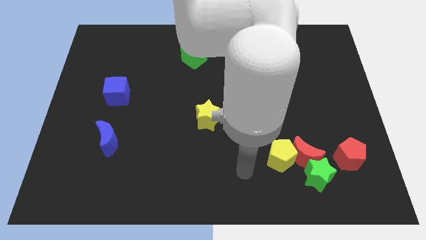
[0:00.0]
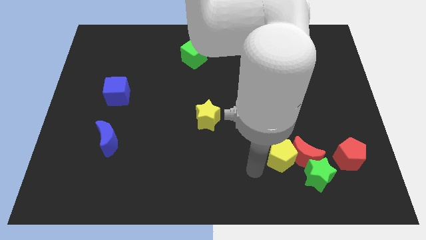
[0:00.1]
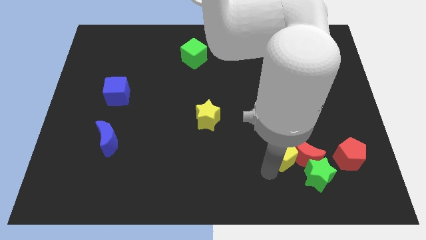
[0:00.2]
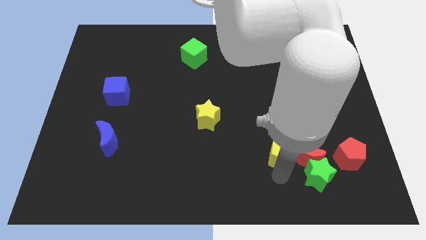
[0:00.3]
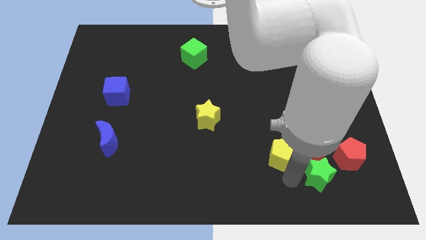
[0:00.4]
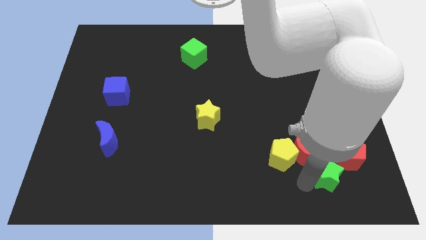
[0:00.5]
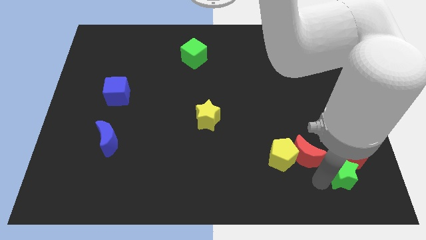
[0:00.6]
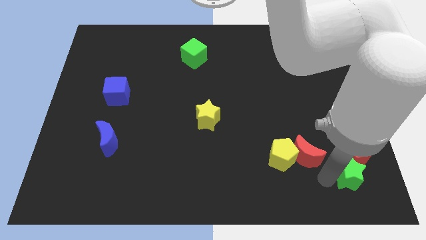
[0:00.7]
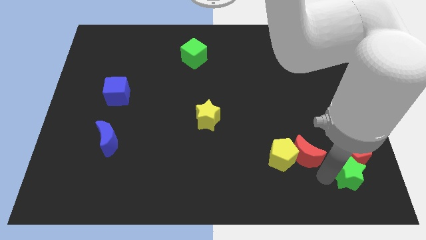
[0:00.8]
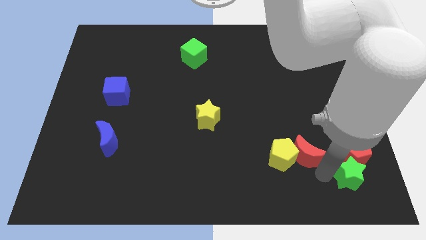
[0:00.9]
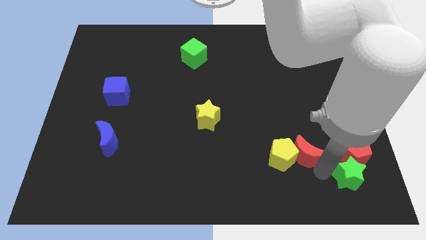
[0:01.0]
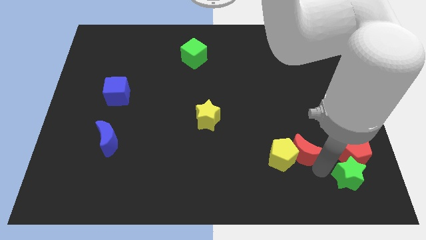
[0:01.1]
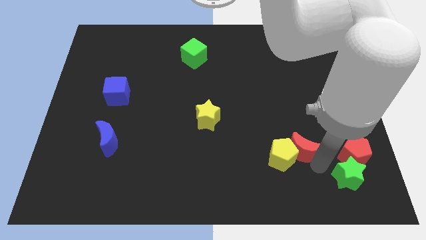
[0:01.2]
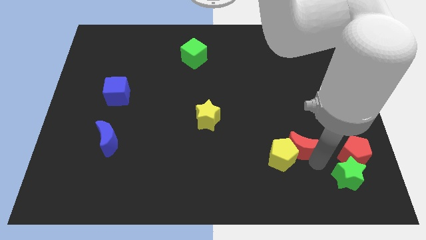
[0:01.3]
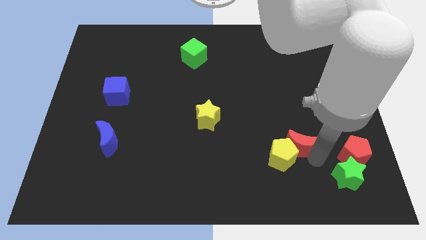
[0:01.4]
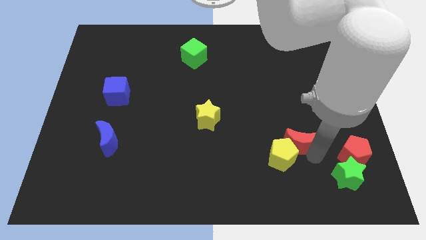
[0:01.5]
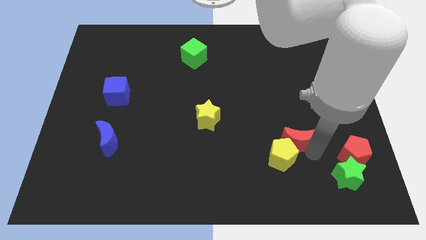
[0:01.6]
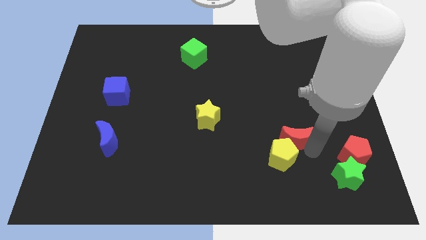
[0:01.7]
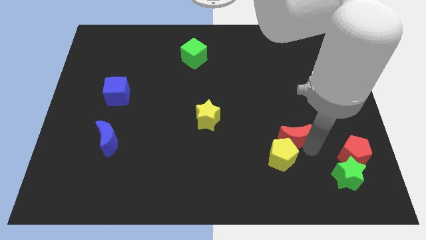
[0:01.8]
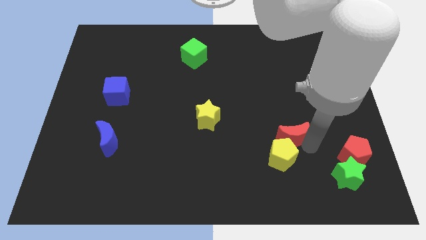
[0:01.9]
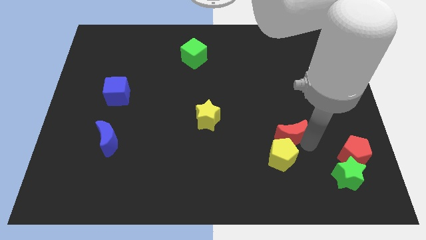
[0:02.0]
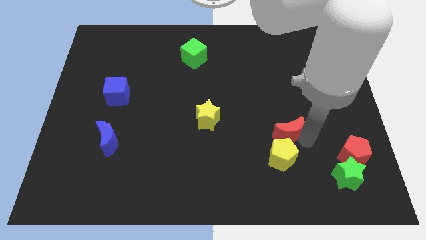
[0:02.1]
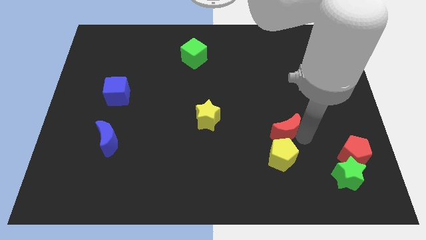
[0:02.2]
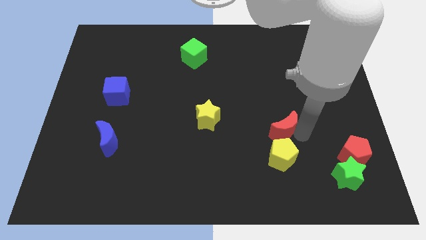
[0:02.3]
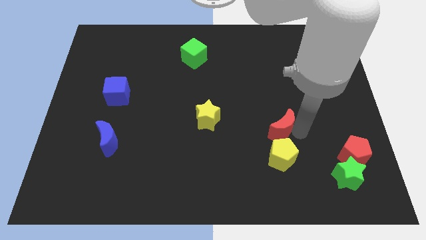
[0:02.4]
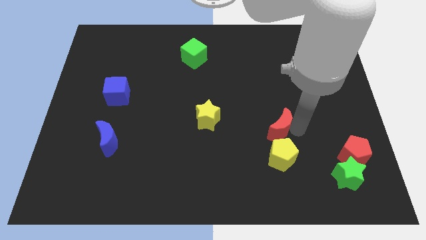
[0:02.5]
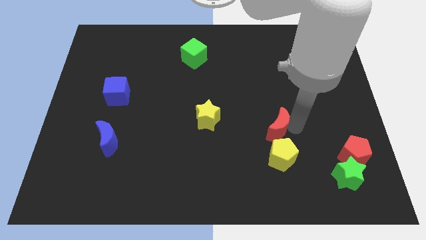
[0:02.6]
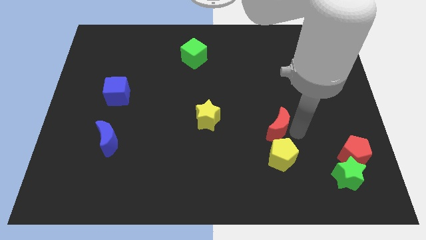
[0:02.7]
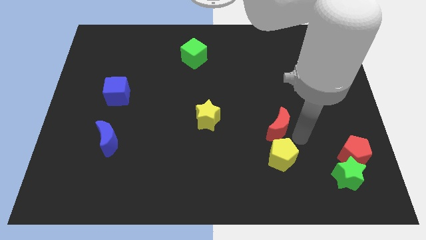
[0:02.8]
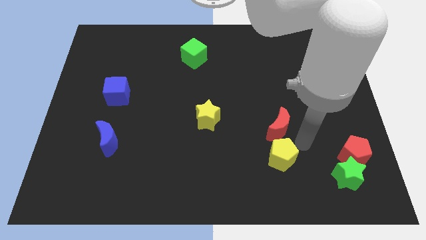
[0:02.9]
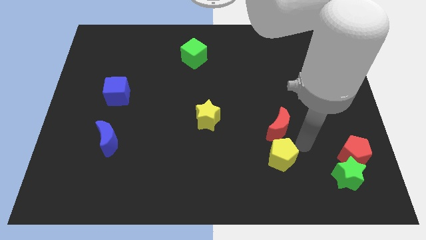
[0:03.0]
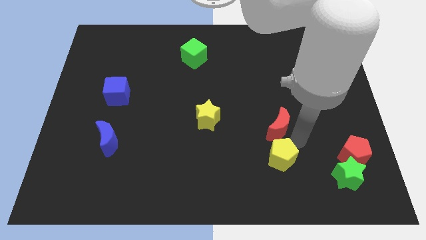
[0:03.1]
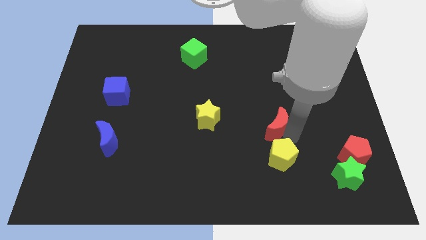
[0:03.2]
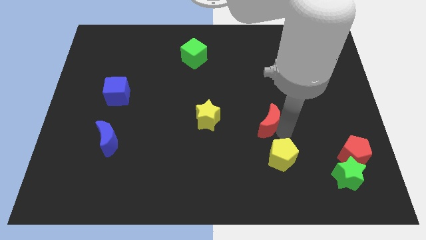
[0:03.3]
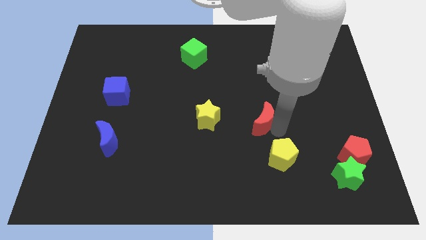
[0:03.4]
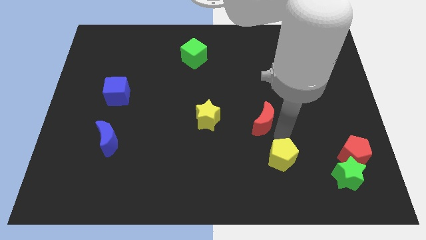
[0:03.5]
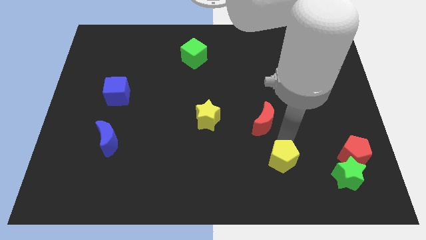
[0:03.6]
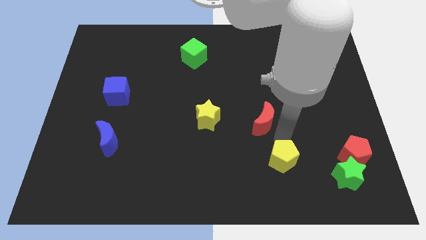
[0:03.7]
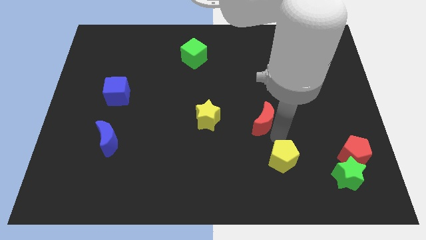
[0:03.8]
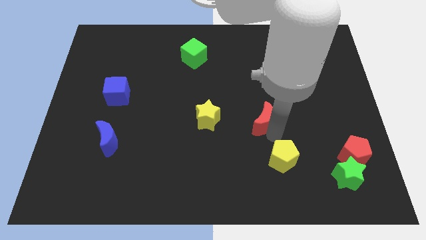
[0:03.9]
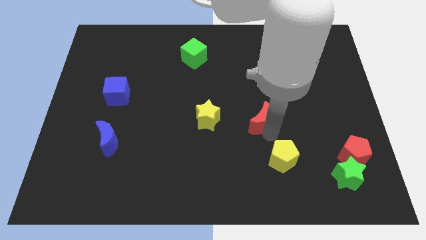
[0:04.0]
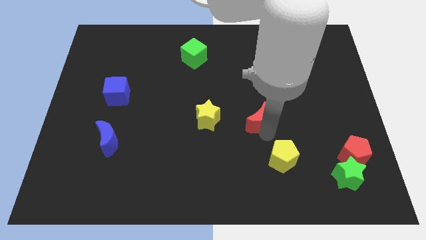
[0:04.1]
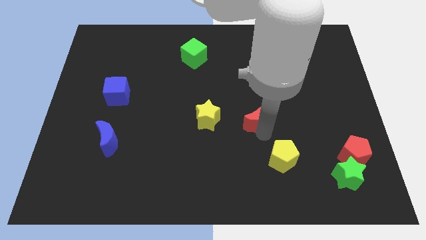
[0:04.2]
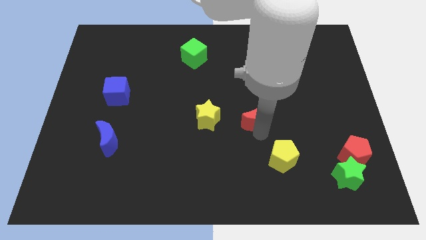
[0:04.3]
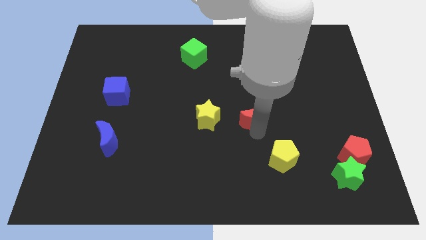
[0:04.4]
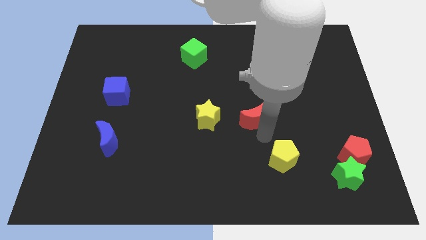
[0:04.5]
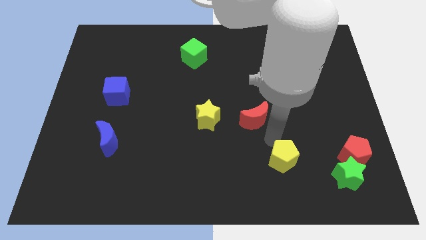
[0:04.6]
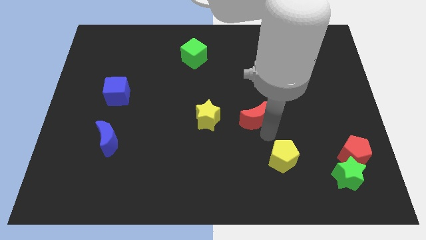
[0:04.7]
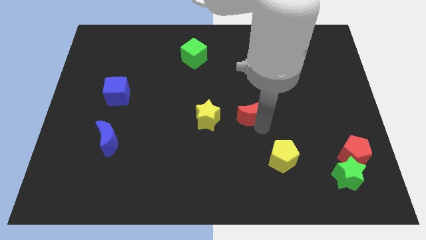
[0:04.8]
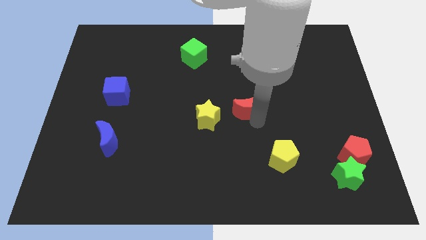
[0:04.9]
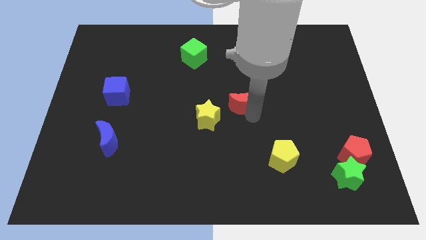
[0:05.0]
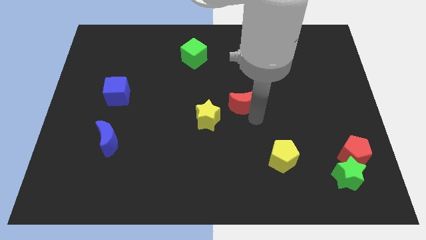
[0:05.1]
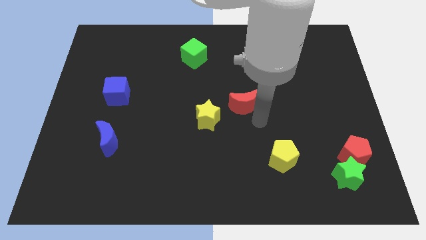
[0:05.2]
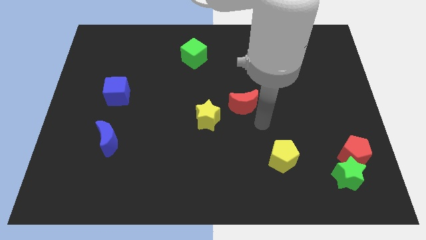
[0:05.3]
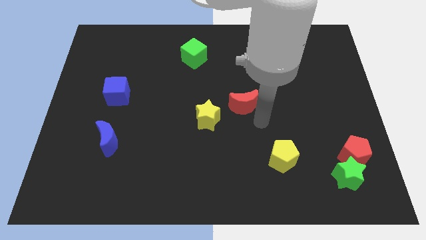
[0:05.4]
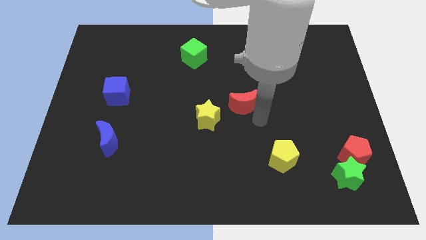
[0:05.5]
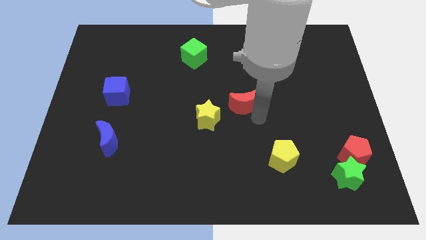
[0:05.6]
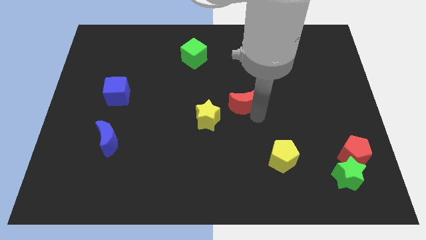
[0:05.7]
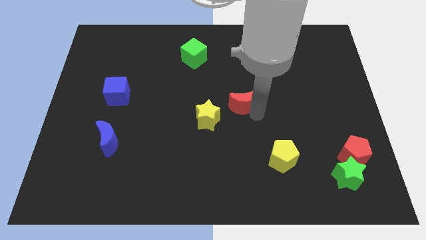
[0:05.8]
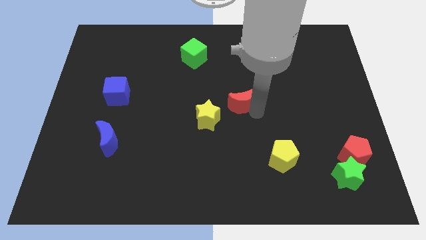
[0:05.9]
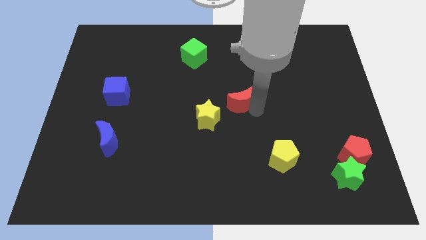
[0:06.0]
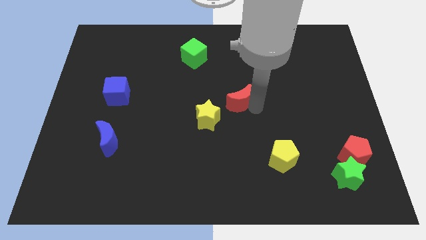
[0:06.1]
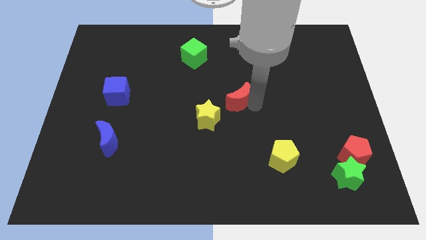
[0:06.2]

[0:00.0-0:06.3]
push the red moon upwards and then to the left

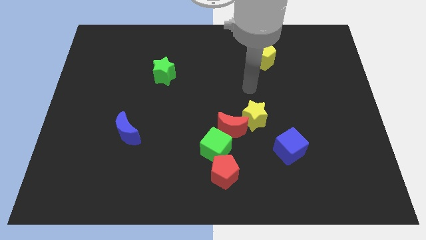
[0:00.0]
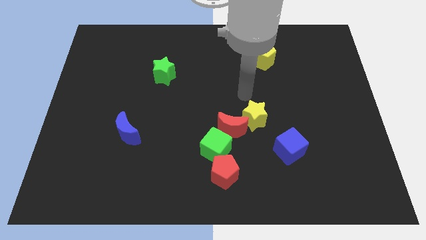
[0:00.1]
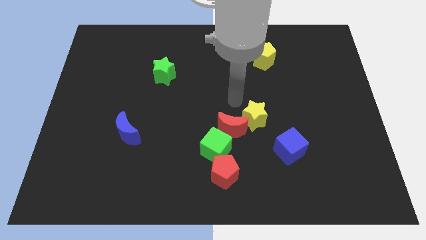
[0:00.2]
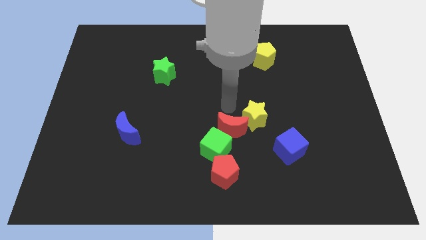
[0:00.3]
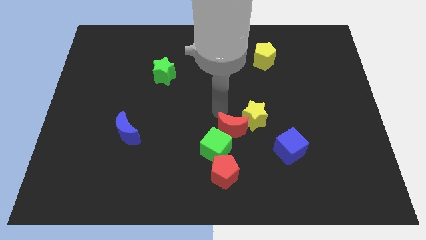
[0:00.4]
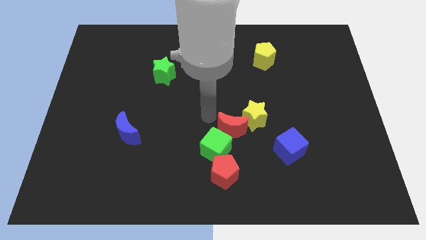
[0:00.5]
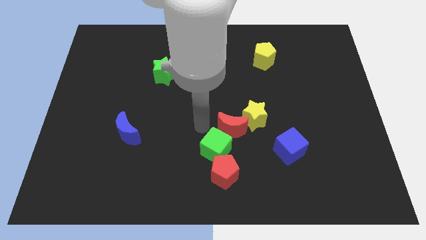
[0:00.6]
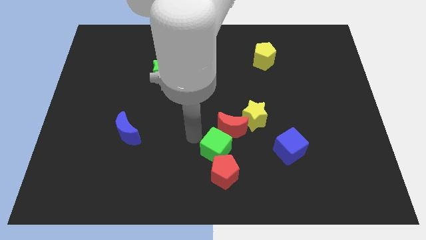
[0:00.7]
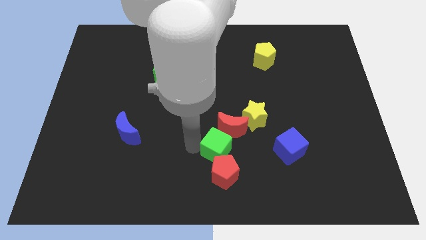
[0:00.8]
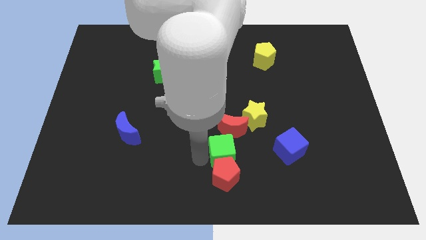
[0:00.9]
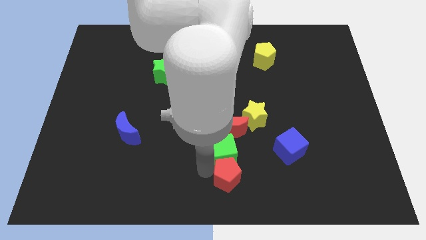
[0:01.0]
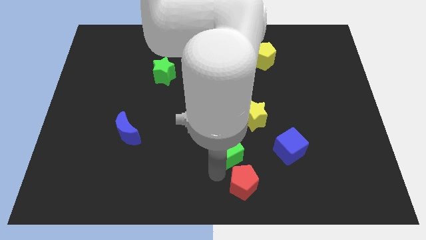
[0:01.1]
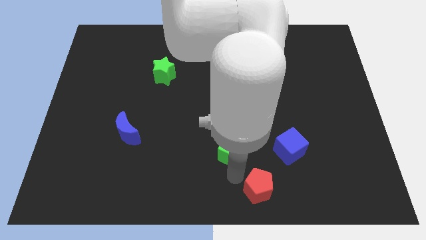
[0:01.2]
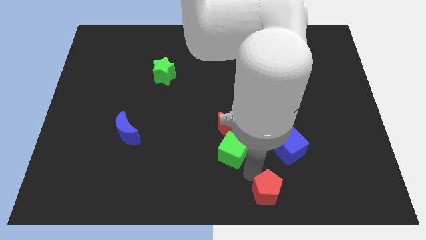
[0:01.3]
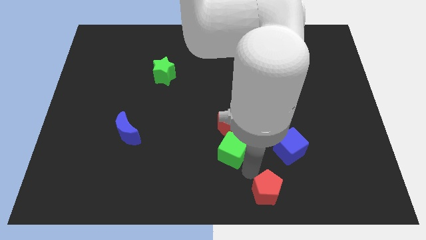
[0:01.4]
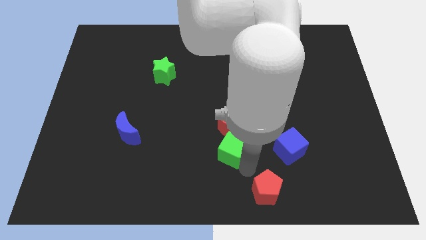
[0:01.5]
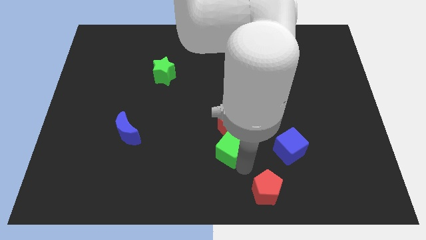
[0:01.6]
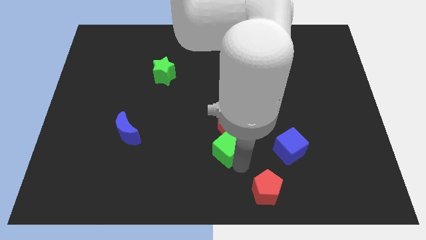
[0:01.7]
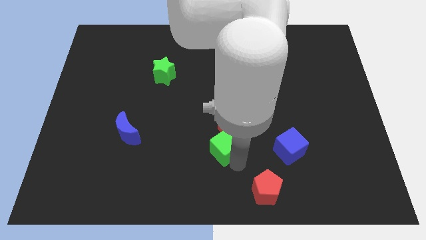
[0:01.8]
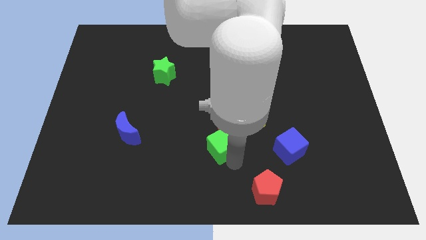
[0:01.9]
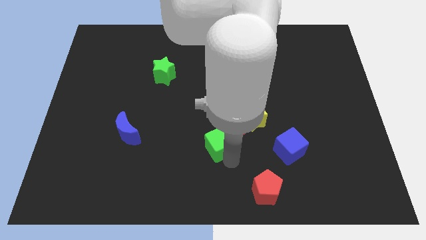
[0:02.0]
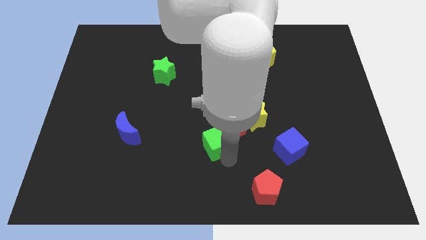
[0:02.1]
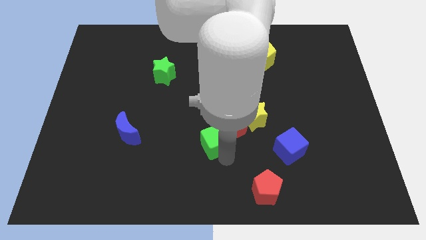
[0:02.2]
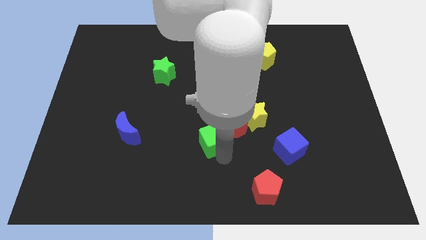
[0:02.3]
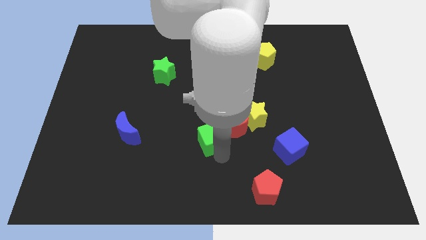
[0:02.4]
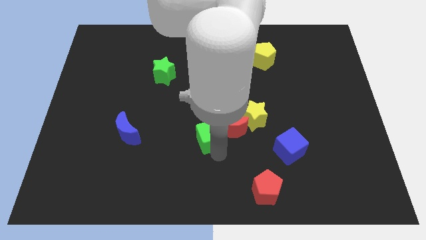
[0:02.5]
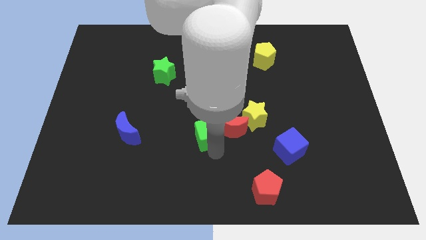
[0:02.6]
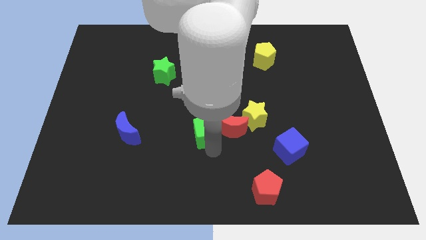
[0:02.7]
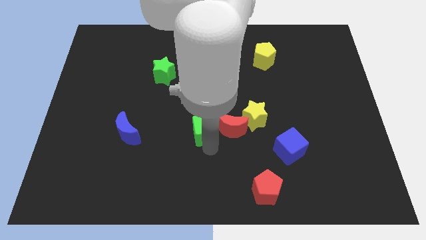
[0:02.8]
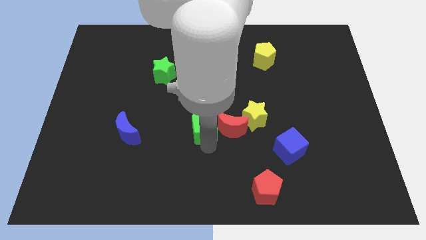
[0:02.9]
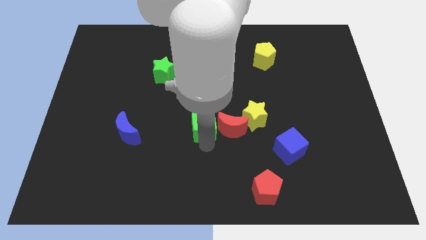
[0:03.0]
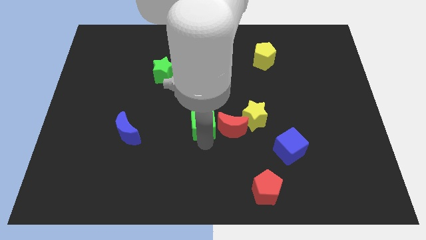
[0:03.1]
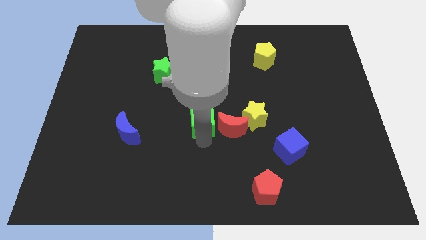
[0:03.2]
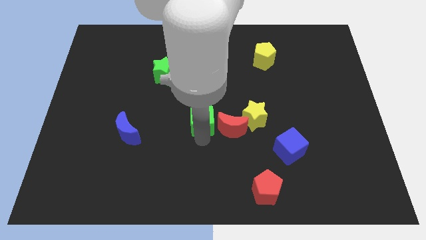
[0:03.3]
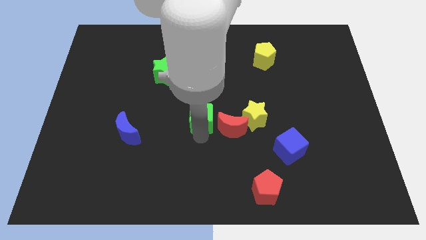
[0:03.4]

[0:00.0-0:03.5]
push the green cube a little upwards
